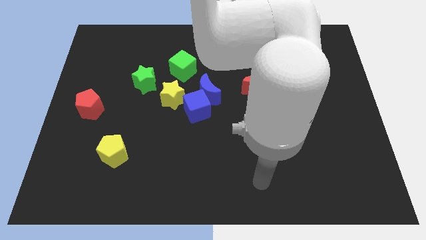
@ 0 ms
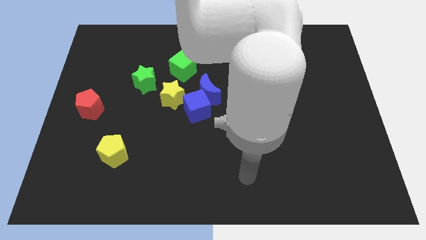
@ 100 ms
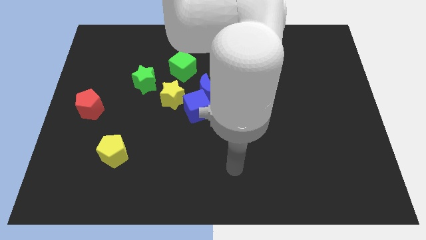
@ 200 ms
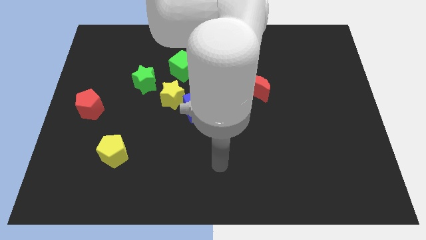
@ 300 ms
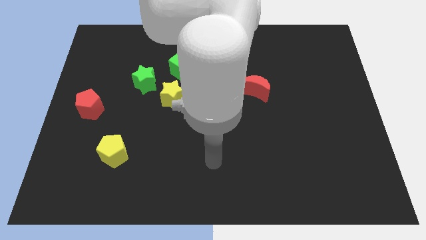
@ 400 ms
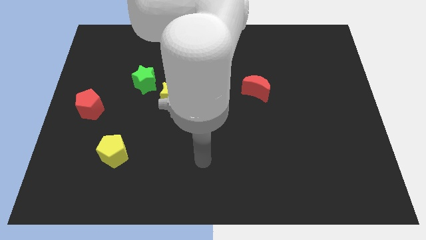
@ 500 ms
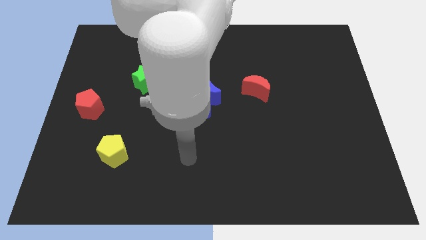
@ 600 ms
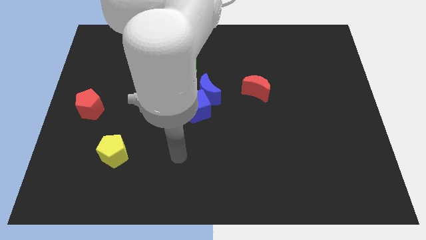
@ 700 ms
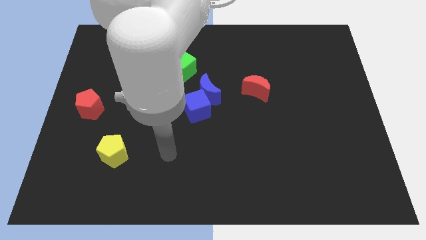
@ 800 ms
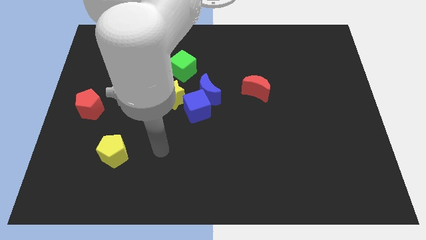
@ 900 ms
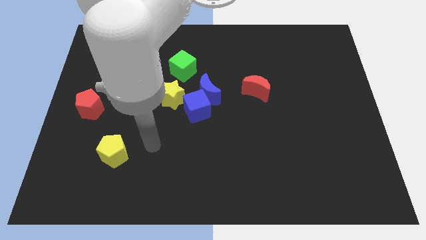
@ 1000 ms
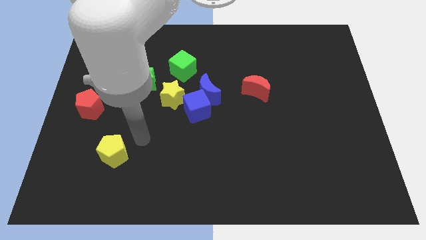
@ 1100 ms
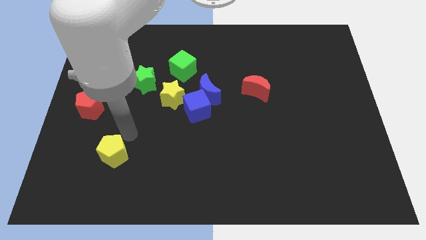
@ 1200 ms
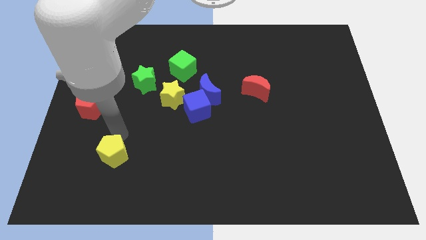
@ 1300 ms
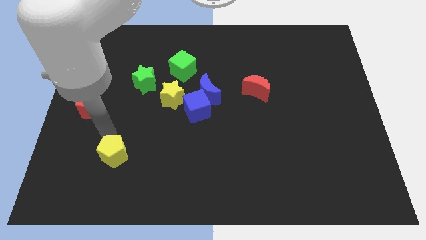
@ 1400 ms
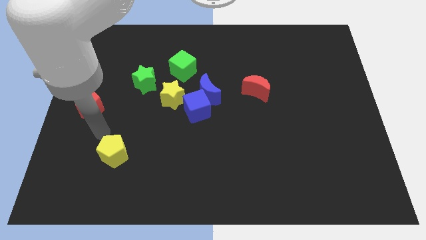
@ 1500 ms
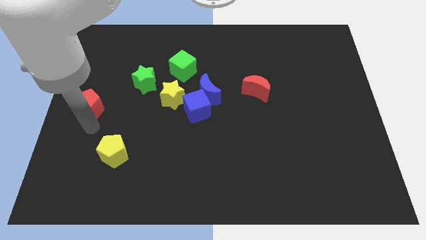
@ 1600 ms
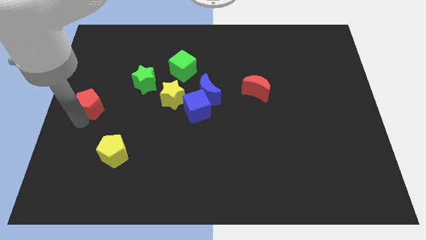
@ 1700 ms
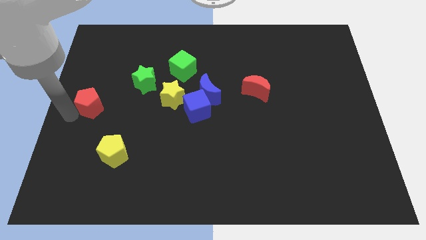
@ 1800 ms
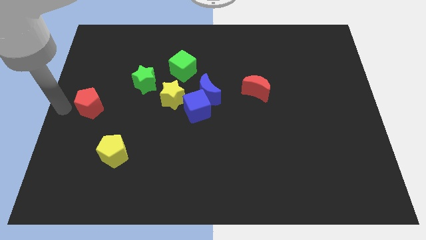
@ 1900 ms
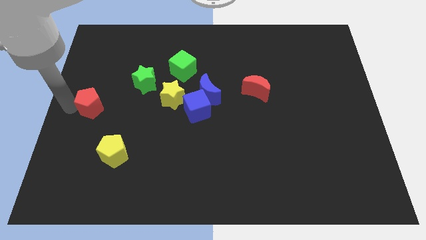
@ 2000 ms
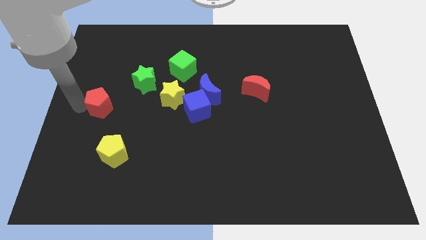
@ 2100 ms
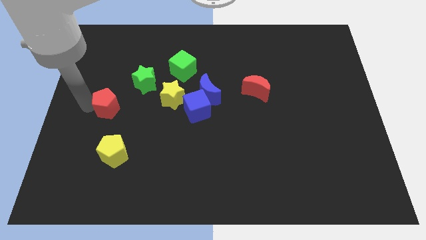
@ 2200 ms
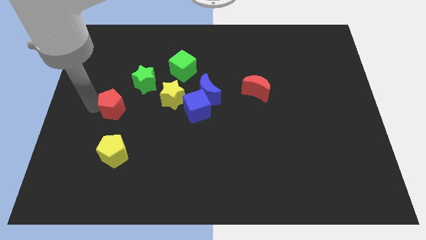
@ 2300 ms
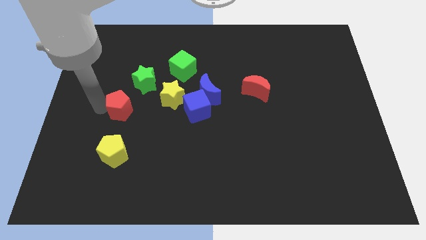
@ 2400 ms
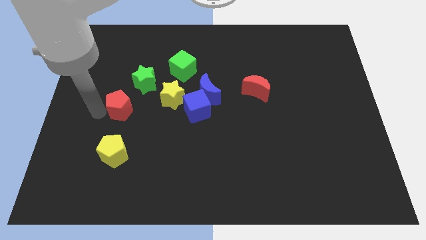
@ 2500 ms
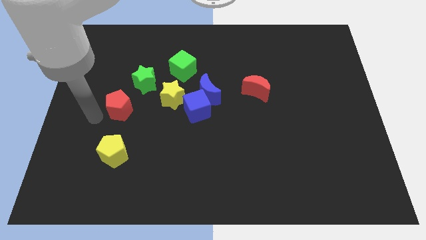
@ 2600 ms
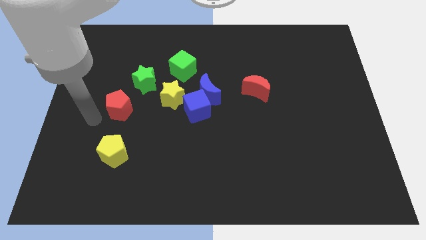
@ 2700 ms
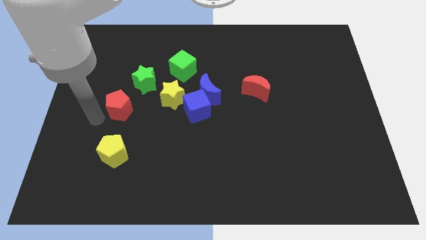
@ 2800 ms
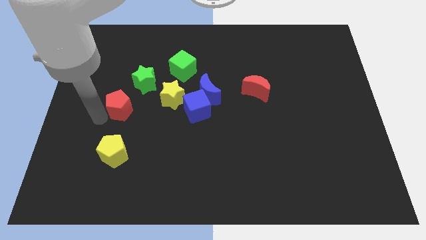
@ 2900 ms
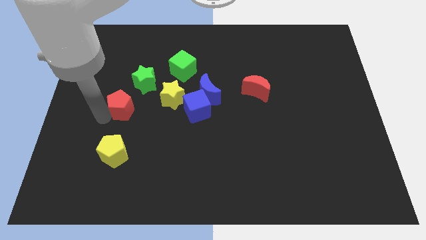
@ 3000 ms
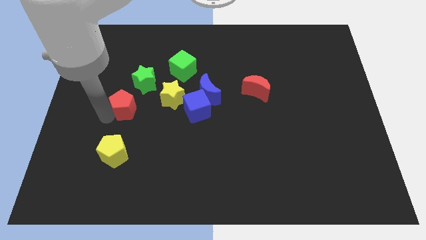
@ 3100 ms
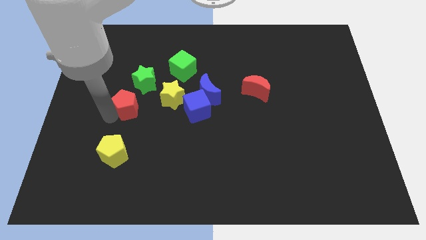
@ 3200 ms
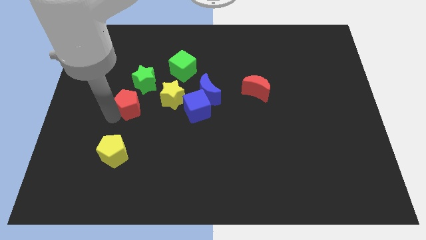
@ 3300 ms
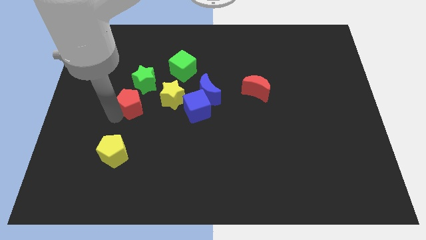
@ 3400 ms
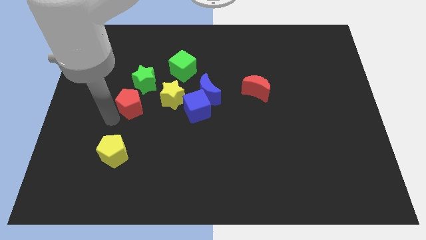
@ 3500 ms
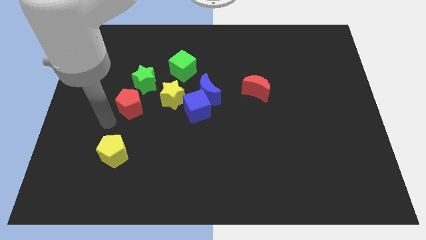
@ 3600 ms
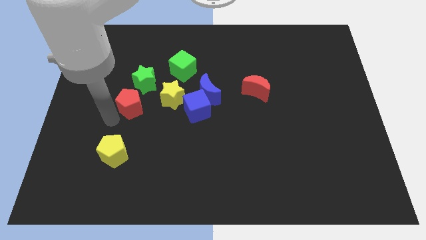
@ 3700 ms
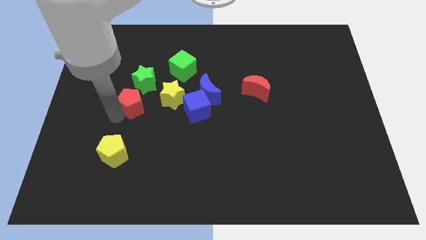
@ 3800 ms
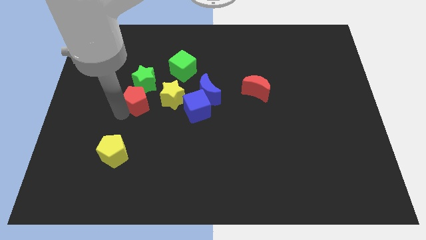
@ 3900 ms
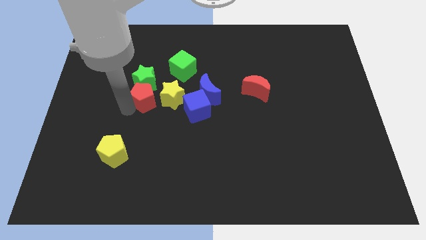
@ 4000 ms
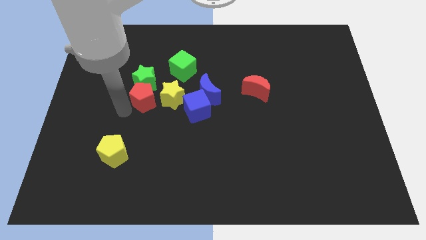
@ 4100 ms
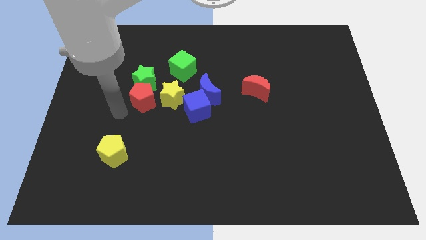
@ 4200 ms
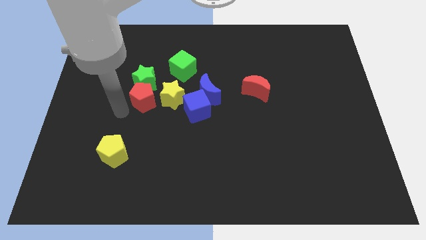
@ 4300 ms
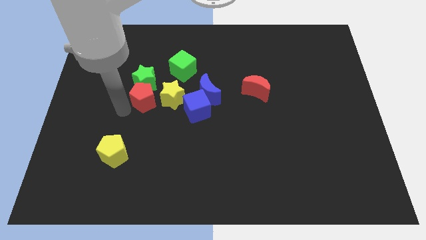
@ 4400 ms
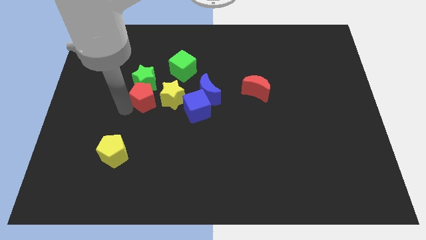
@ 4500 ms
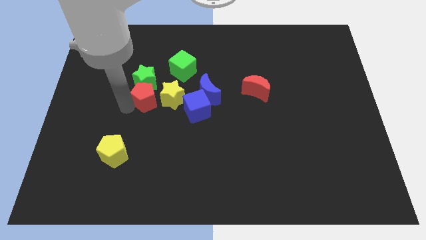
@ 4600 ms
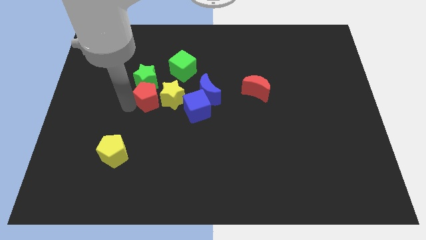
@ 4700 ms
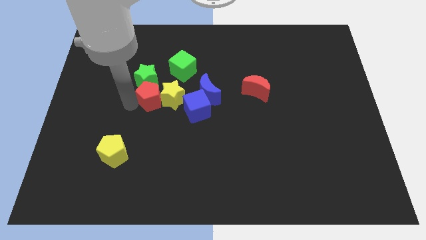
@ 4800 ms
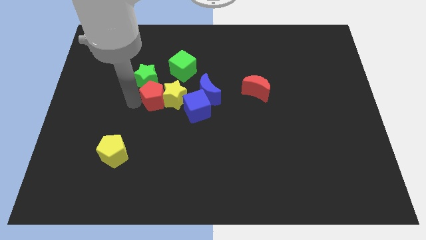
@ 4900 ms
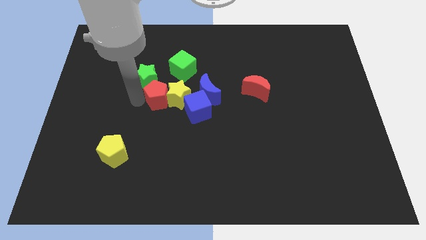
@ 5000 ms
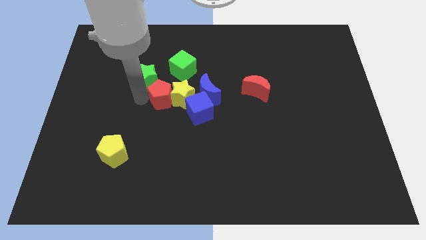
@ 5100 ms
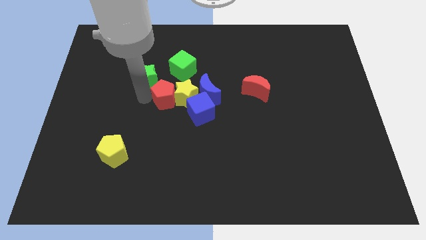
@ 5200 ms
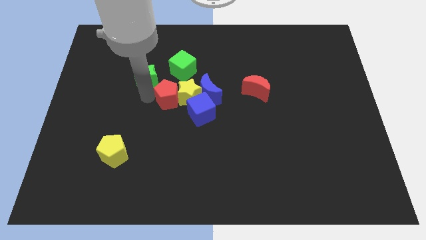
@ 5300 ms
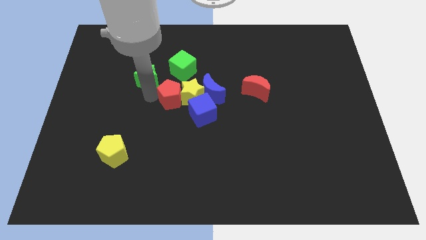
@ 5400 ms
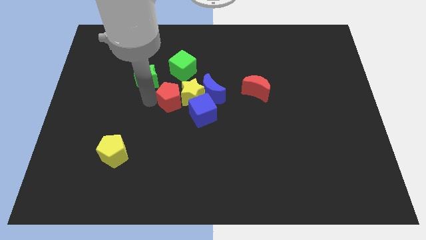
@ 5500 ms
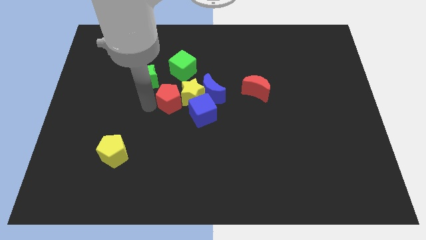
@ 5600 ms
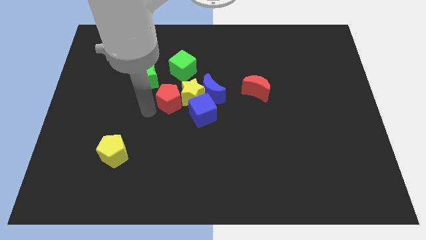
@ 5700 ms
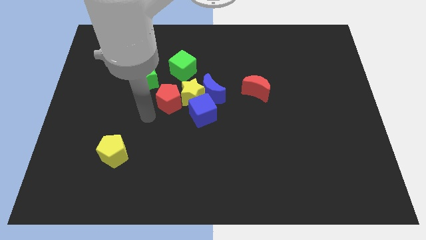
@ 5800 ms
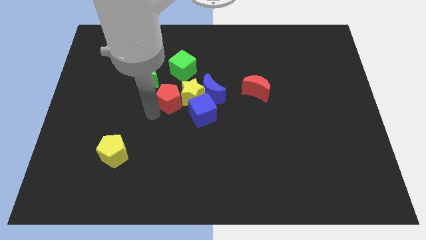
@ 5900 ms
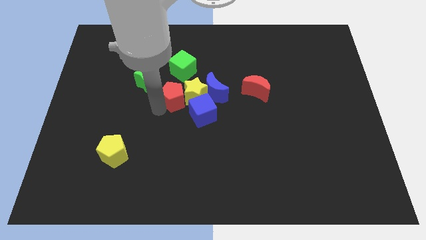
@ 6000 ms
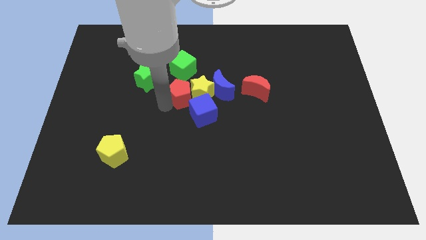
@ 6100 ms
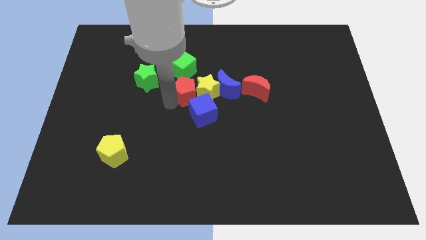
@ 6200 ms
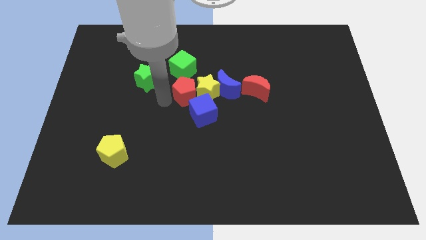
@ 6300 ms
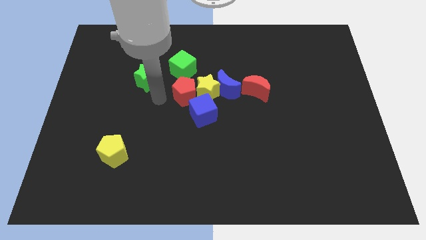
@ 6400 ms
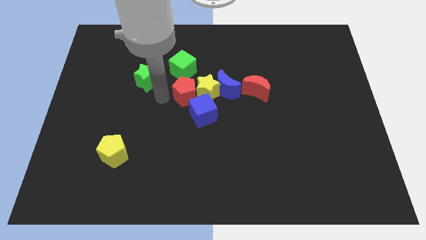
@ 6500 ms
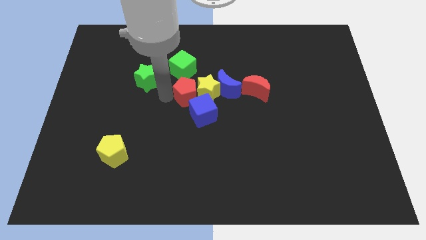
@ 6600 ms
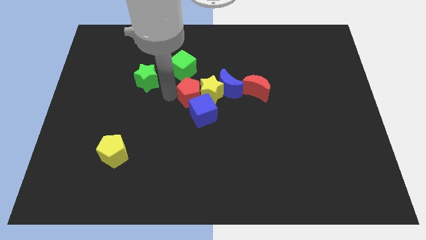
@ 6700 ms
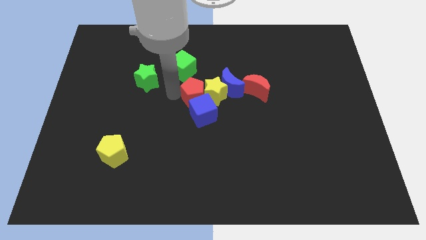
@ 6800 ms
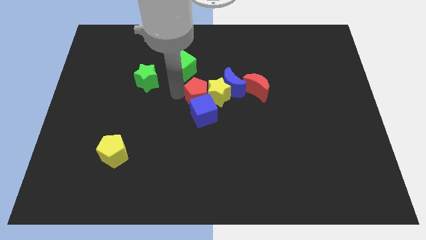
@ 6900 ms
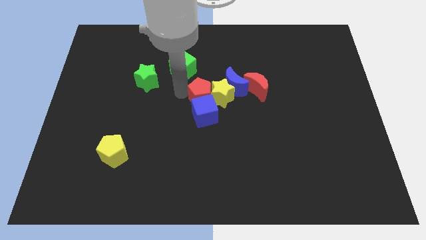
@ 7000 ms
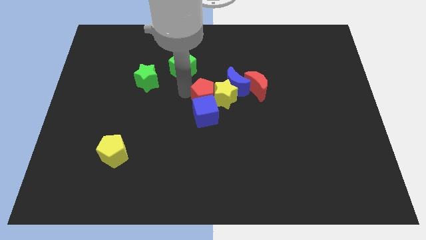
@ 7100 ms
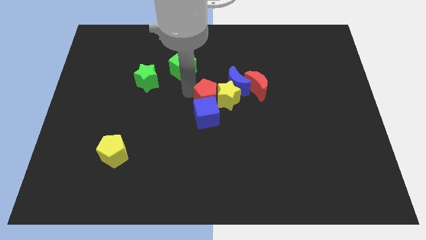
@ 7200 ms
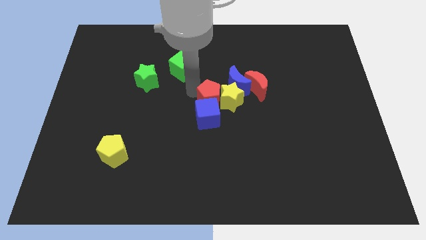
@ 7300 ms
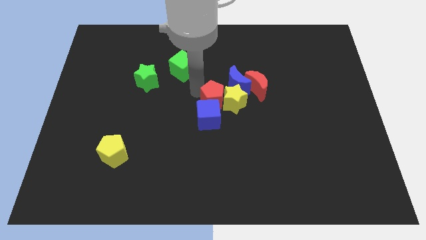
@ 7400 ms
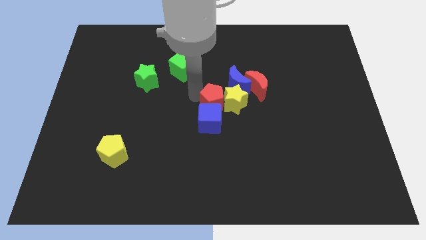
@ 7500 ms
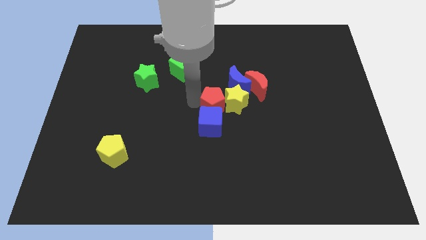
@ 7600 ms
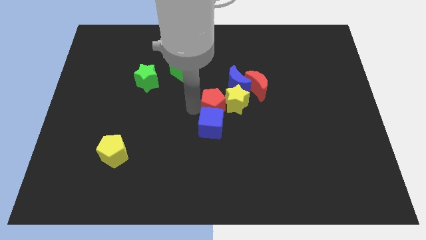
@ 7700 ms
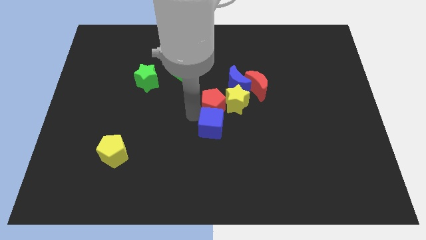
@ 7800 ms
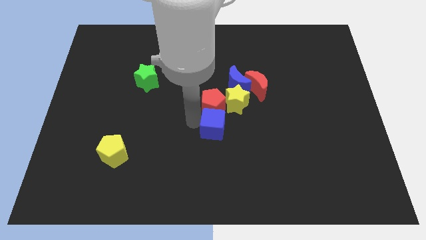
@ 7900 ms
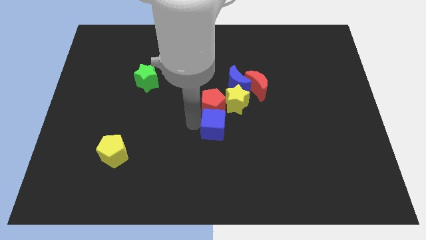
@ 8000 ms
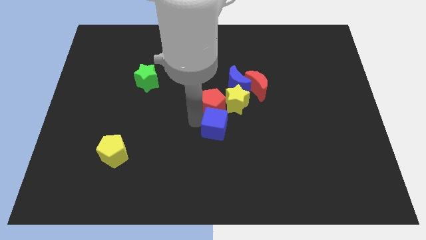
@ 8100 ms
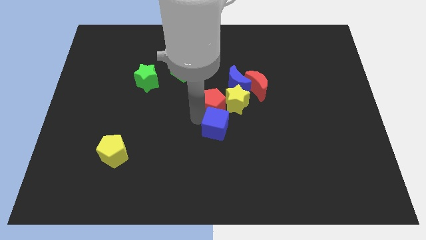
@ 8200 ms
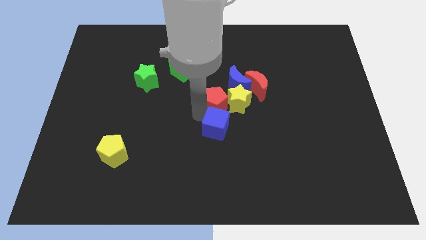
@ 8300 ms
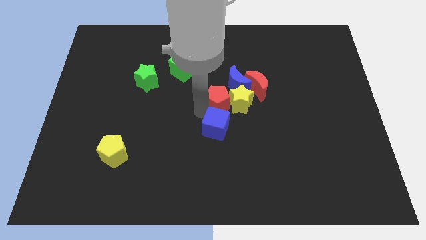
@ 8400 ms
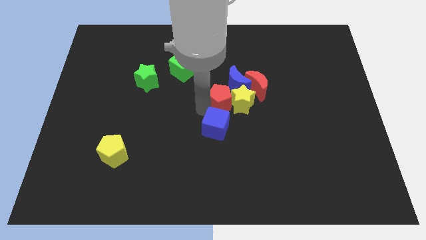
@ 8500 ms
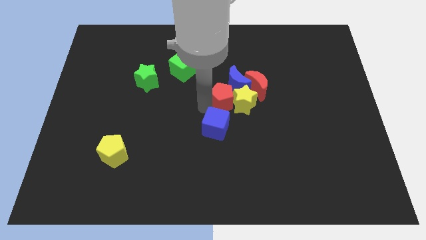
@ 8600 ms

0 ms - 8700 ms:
move the red pentagon towards the blue moon
